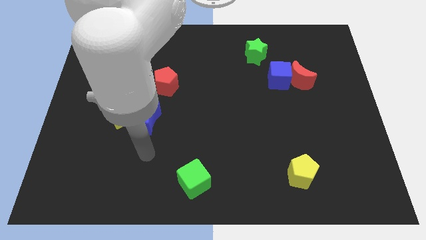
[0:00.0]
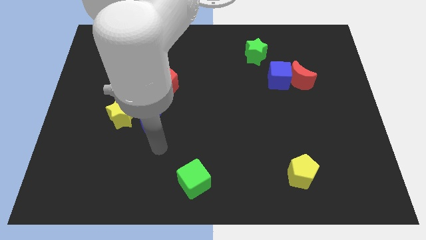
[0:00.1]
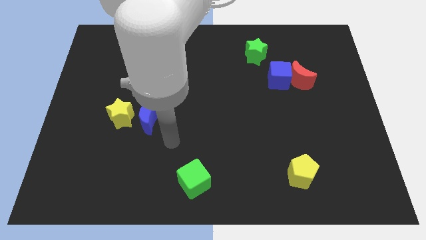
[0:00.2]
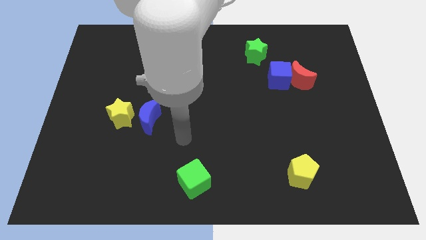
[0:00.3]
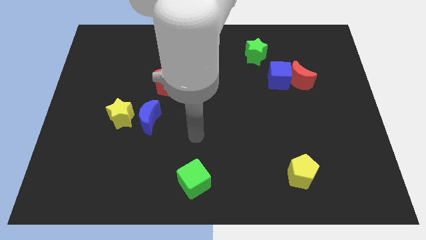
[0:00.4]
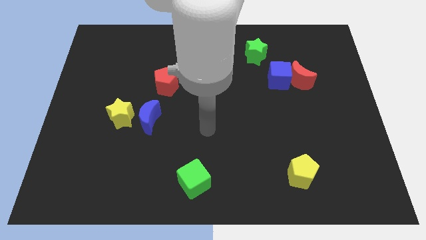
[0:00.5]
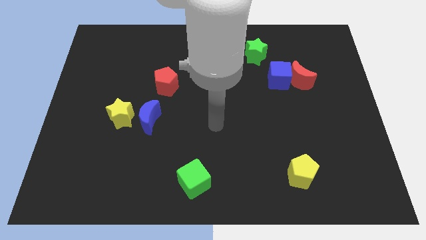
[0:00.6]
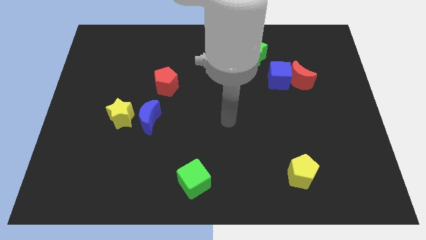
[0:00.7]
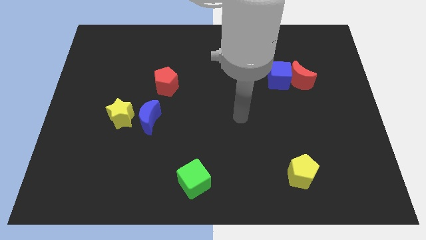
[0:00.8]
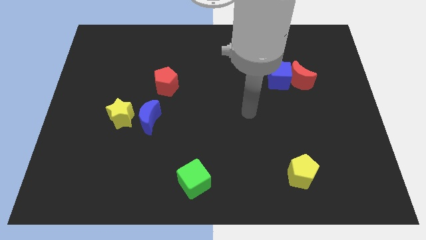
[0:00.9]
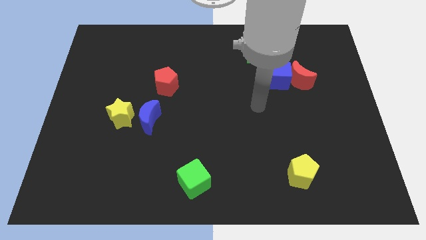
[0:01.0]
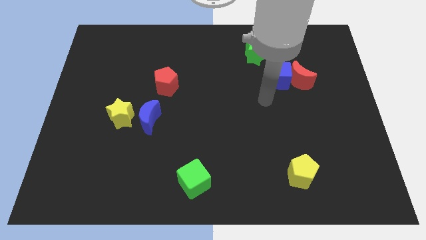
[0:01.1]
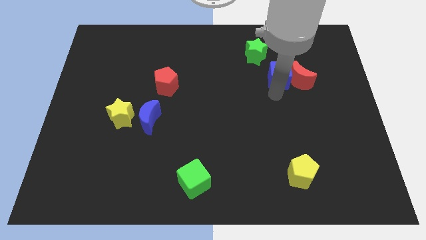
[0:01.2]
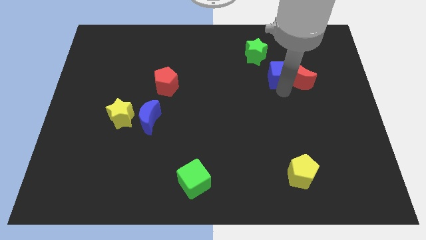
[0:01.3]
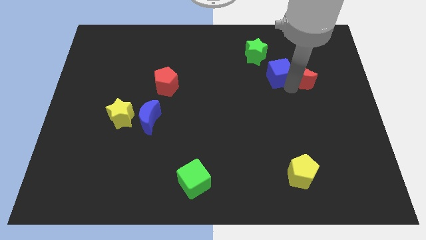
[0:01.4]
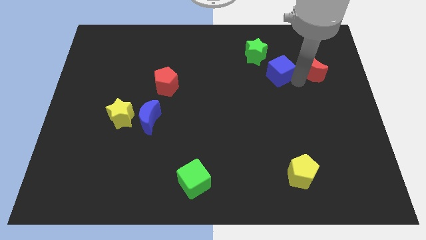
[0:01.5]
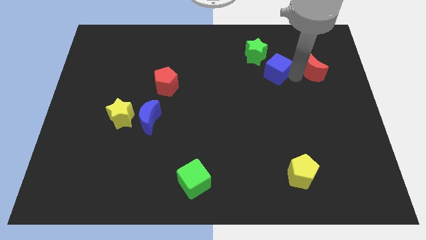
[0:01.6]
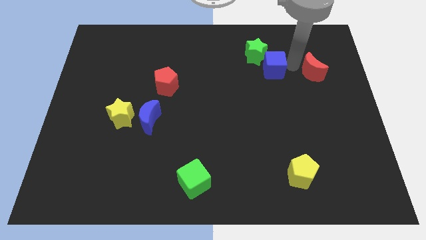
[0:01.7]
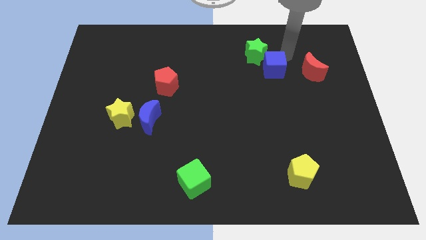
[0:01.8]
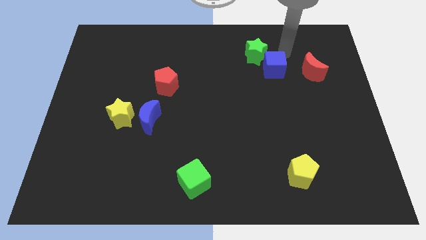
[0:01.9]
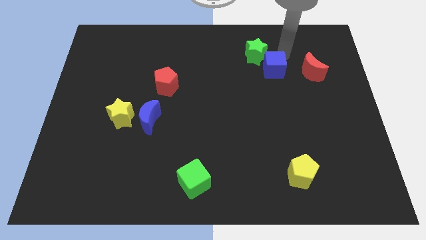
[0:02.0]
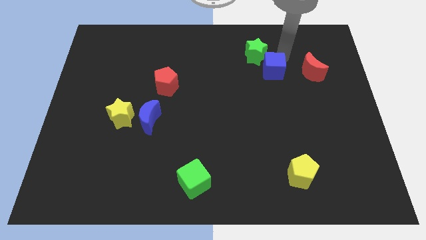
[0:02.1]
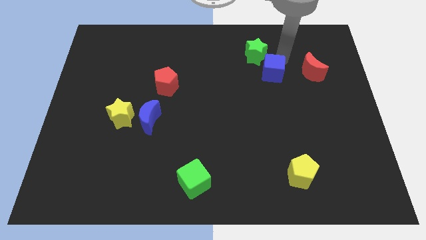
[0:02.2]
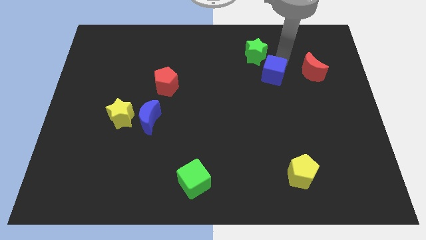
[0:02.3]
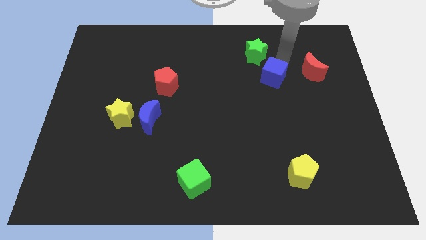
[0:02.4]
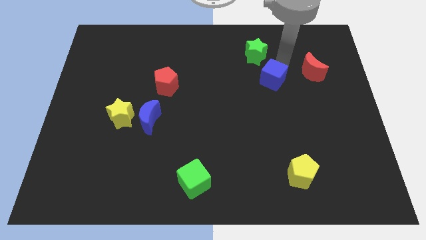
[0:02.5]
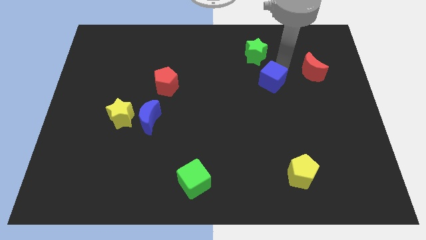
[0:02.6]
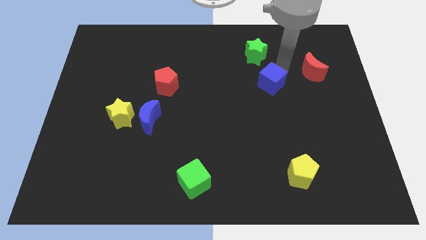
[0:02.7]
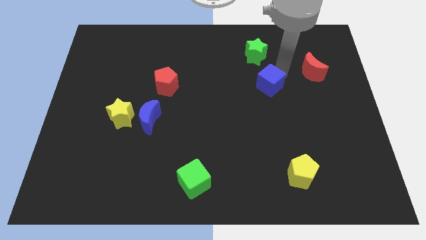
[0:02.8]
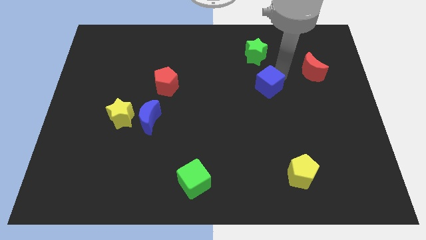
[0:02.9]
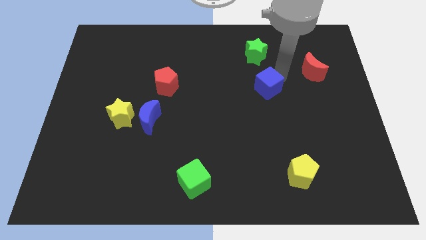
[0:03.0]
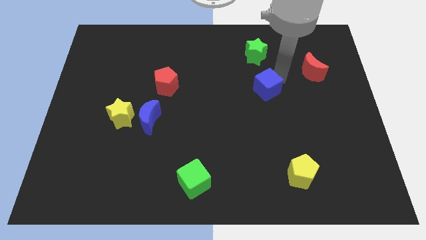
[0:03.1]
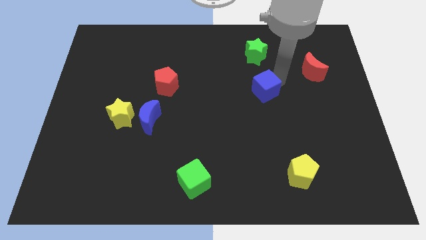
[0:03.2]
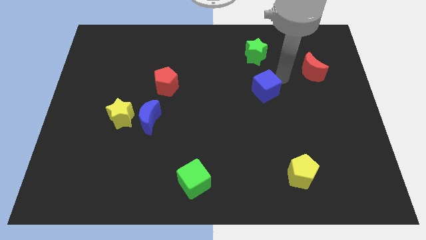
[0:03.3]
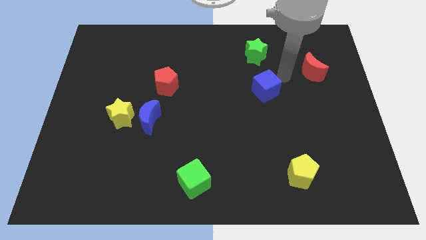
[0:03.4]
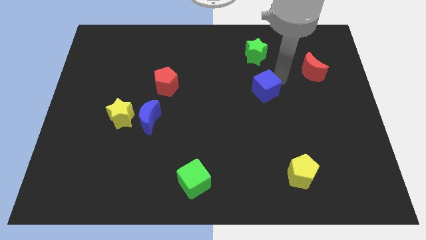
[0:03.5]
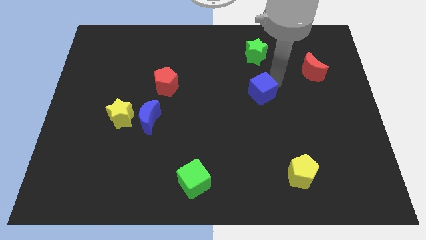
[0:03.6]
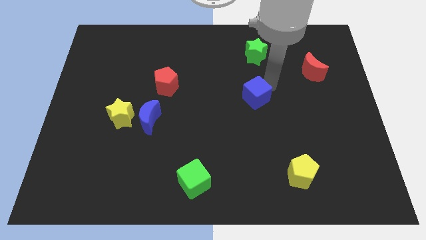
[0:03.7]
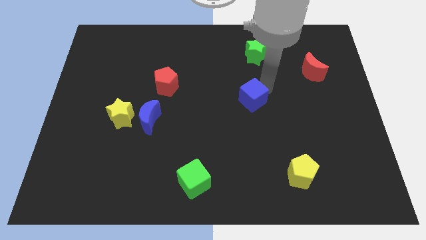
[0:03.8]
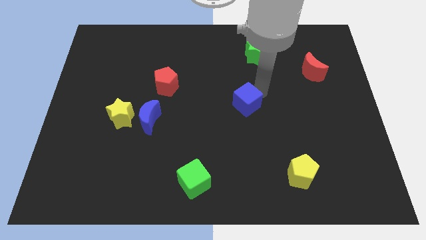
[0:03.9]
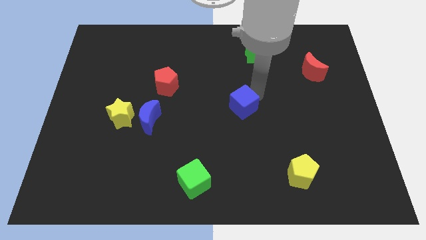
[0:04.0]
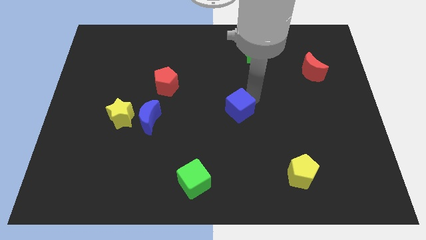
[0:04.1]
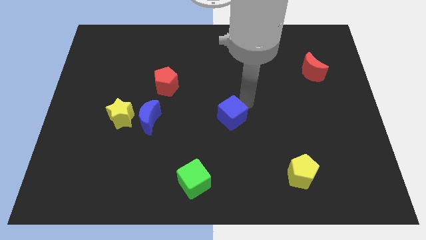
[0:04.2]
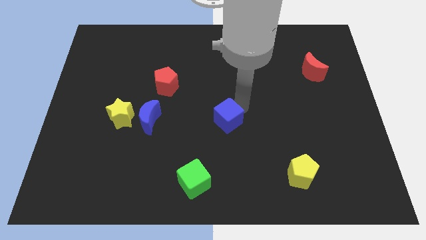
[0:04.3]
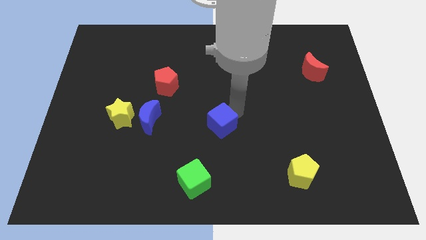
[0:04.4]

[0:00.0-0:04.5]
push the blue cube down and to the left

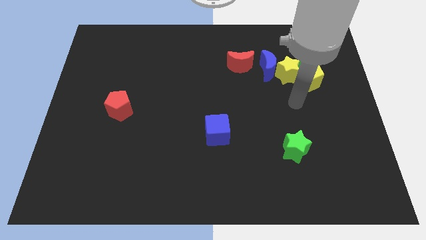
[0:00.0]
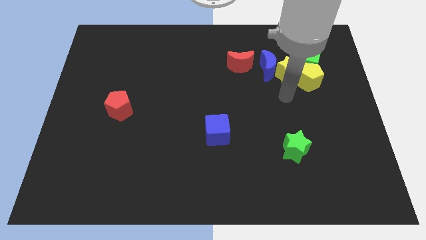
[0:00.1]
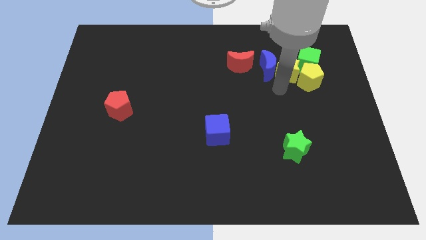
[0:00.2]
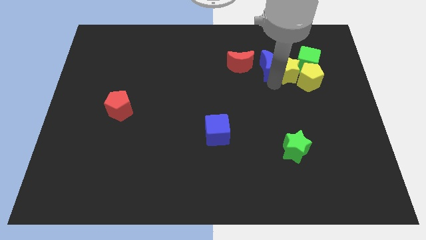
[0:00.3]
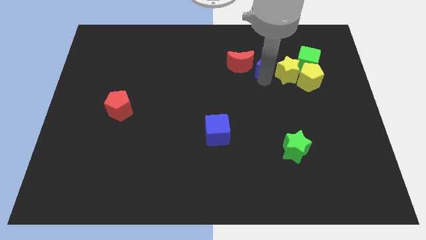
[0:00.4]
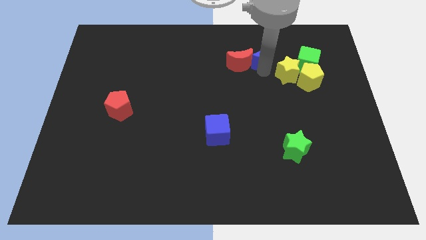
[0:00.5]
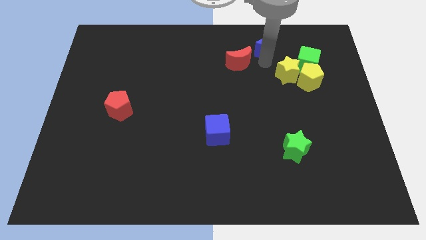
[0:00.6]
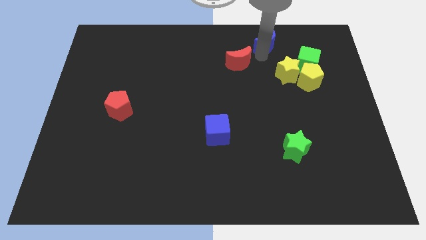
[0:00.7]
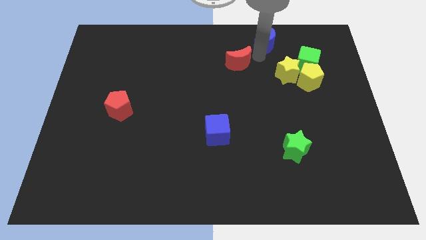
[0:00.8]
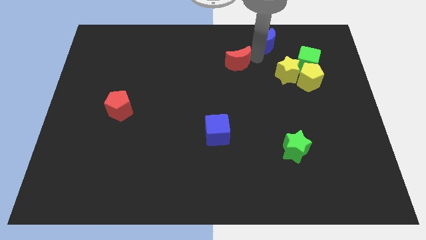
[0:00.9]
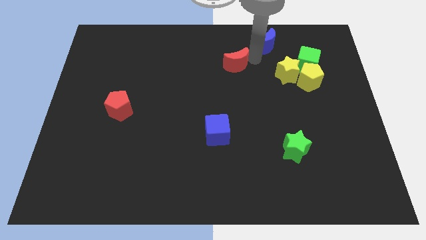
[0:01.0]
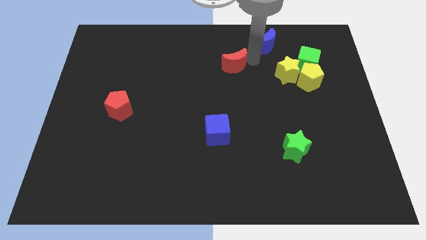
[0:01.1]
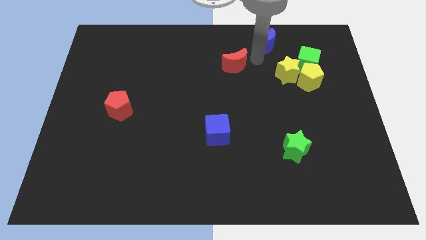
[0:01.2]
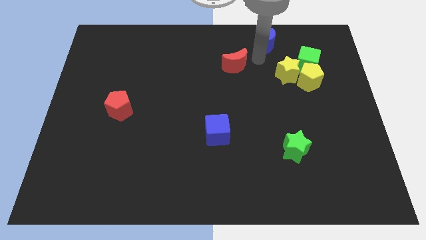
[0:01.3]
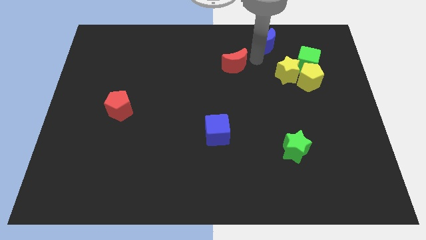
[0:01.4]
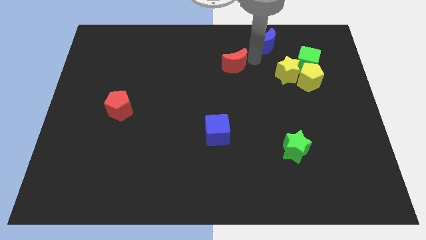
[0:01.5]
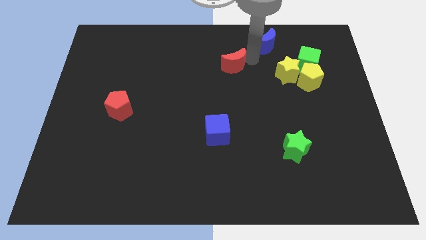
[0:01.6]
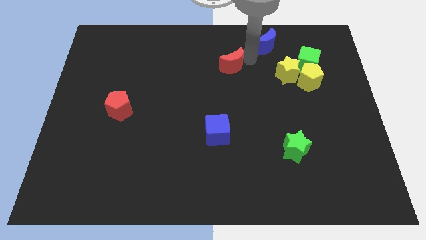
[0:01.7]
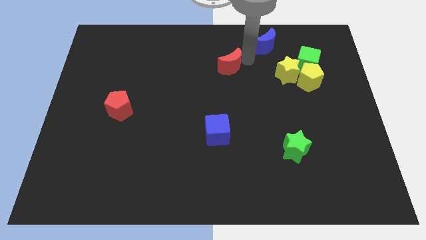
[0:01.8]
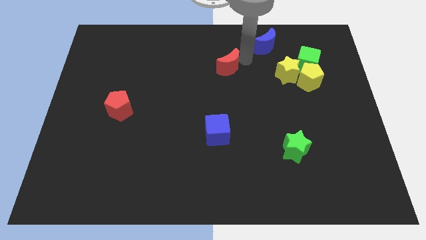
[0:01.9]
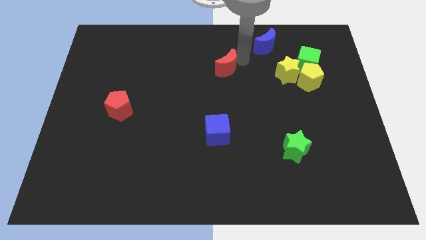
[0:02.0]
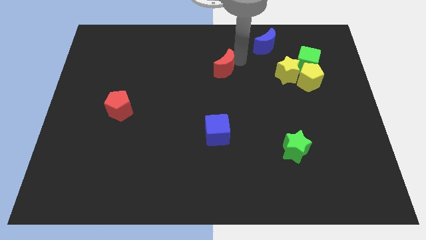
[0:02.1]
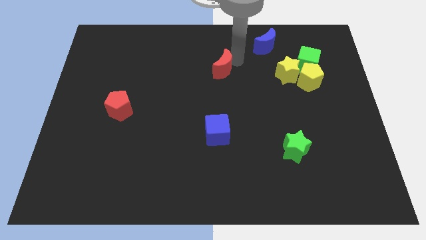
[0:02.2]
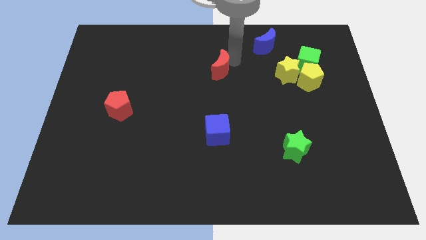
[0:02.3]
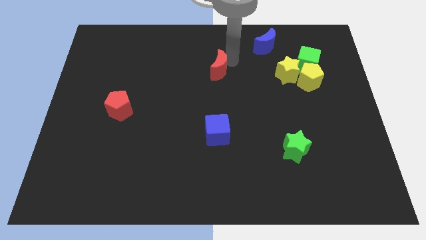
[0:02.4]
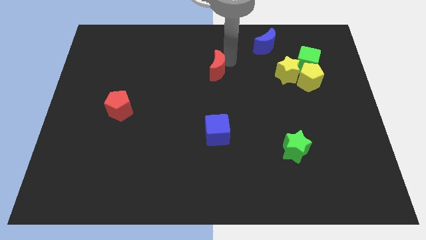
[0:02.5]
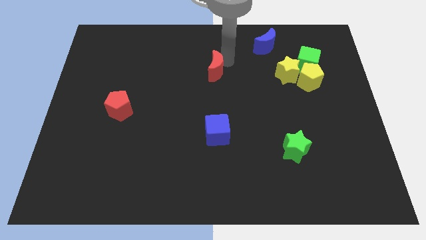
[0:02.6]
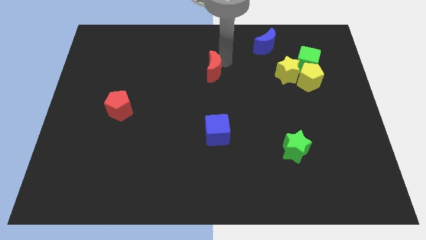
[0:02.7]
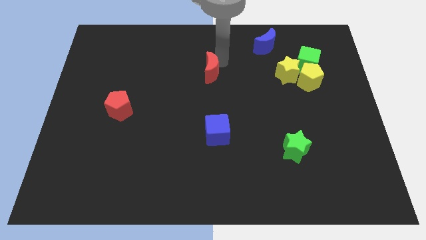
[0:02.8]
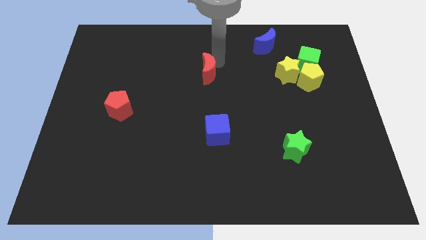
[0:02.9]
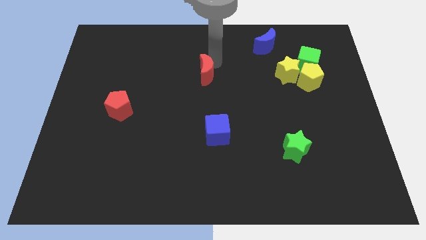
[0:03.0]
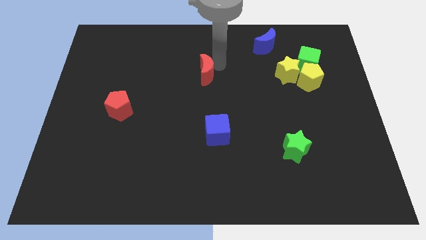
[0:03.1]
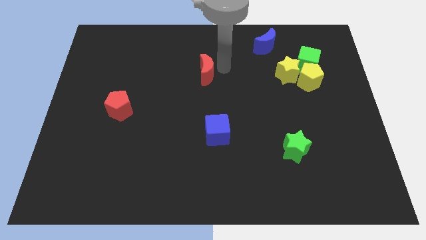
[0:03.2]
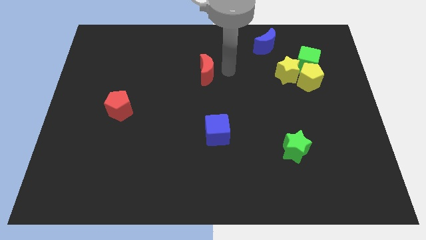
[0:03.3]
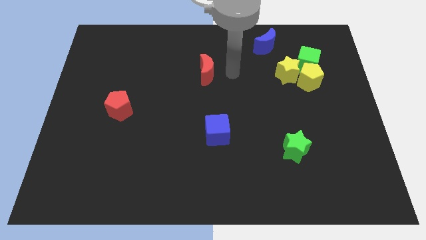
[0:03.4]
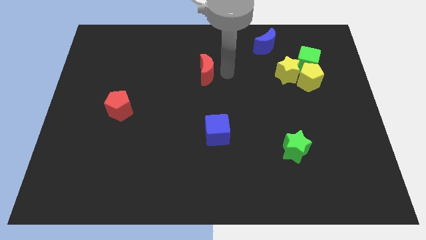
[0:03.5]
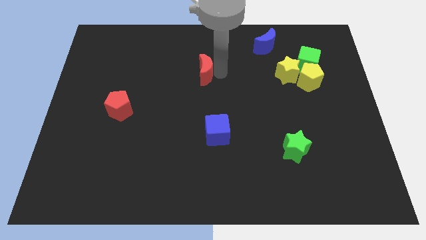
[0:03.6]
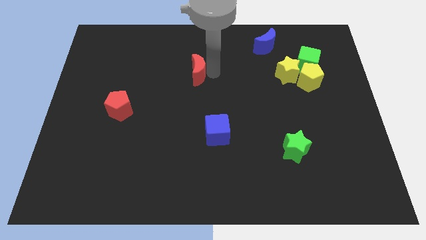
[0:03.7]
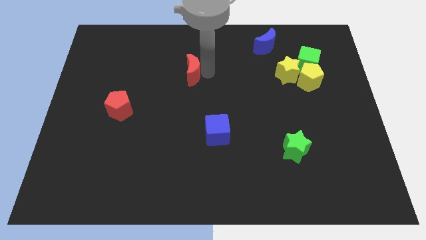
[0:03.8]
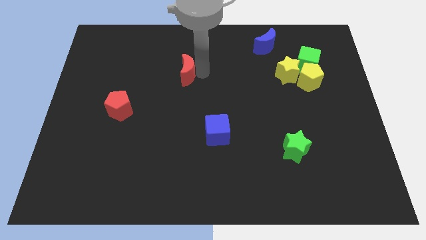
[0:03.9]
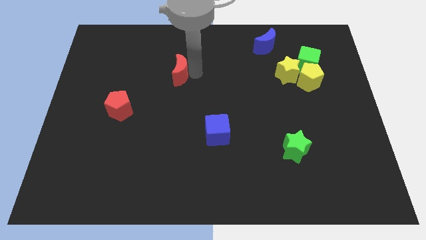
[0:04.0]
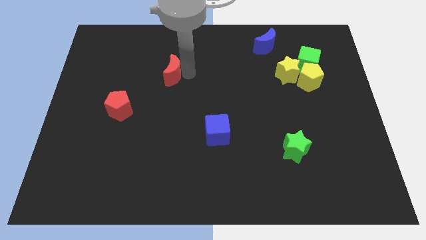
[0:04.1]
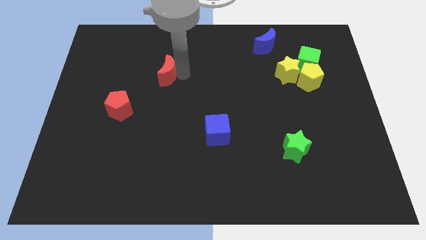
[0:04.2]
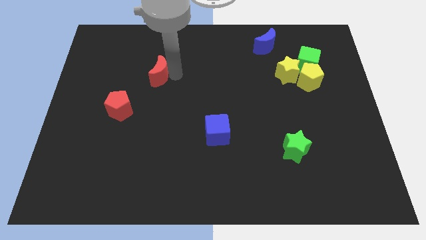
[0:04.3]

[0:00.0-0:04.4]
slide the red moon to the left
